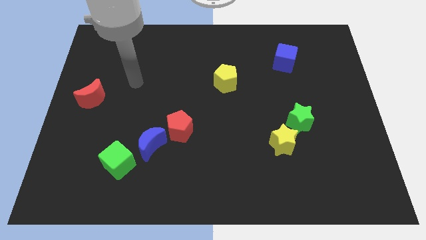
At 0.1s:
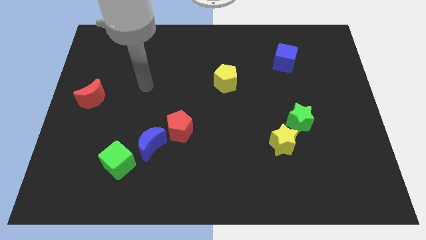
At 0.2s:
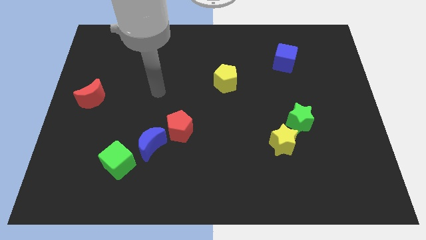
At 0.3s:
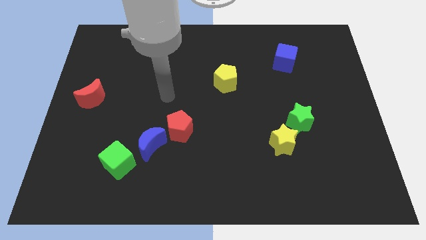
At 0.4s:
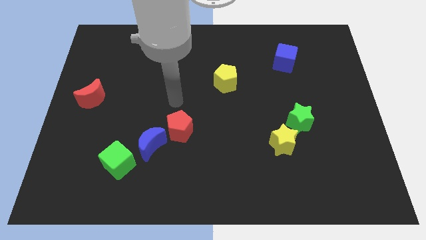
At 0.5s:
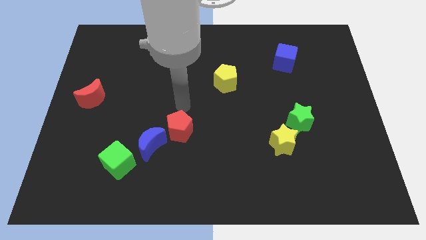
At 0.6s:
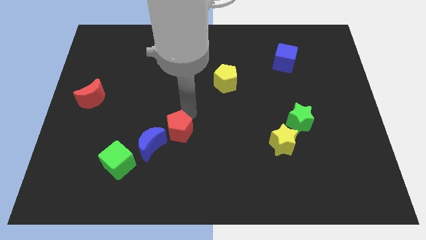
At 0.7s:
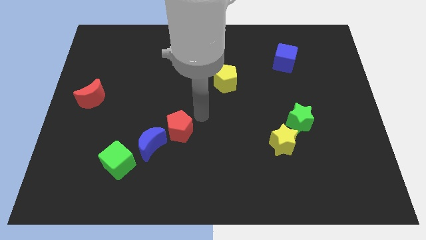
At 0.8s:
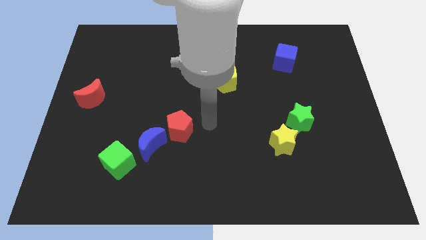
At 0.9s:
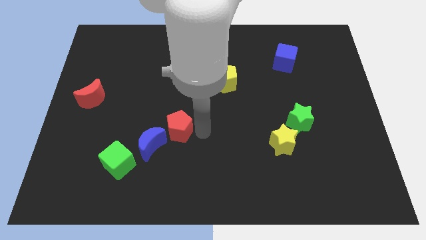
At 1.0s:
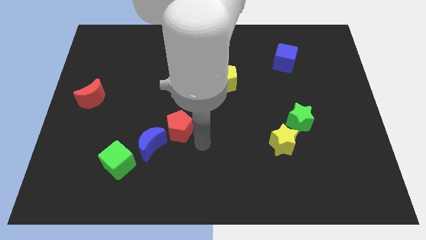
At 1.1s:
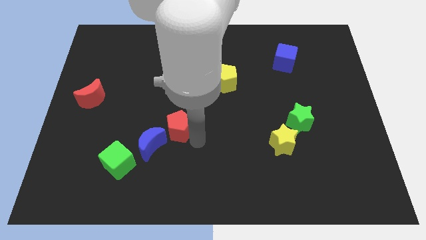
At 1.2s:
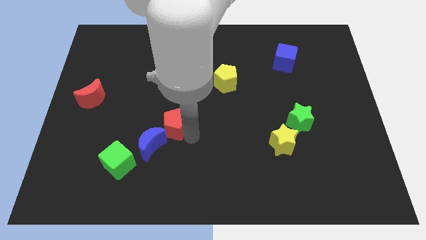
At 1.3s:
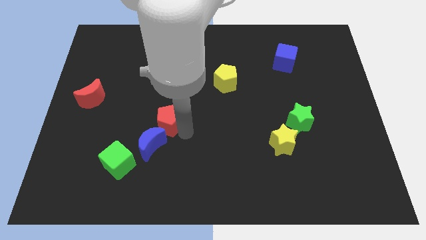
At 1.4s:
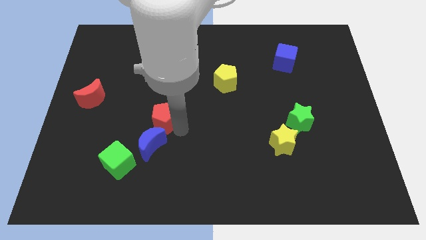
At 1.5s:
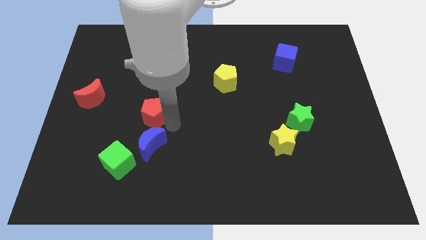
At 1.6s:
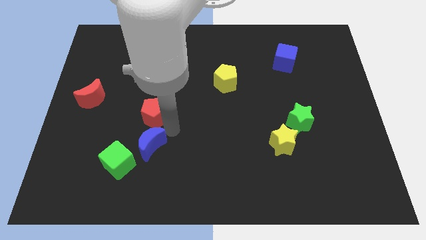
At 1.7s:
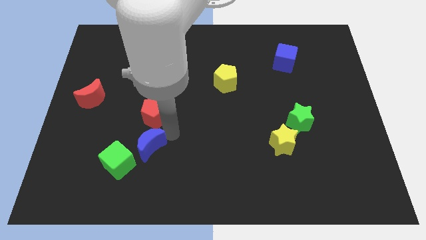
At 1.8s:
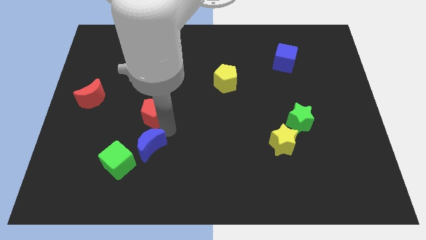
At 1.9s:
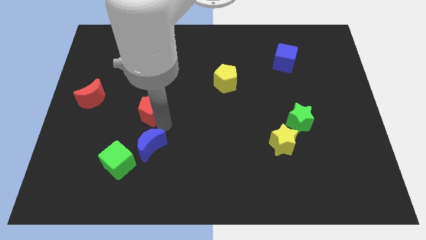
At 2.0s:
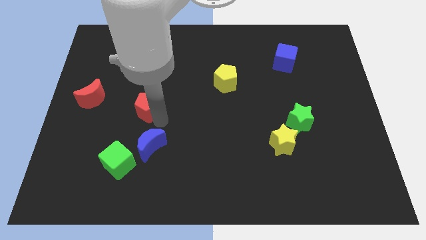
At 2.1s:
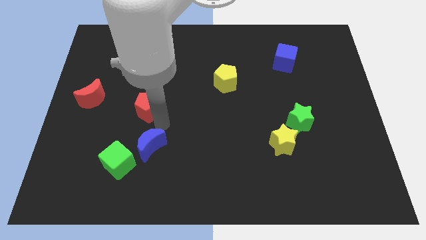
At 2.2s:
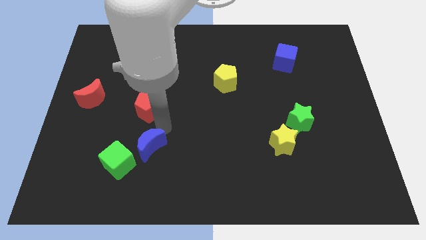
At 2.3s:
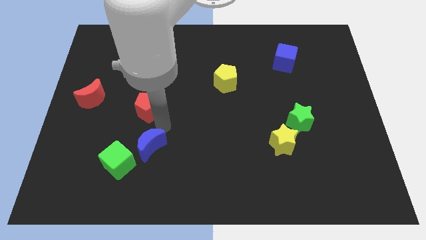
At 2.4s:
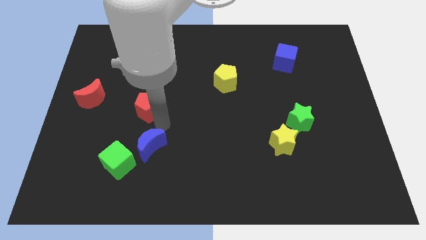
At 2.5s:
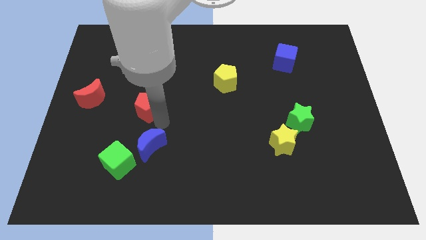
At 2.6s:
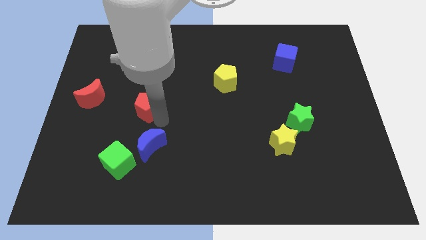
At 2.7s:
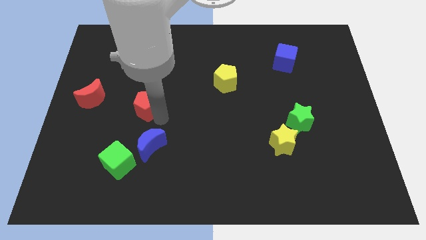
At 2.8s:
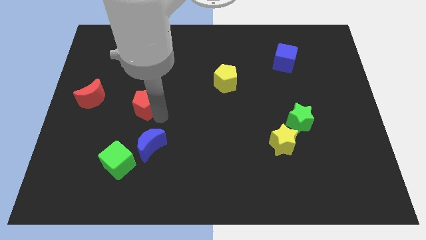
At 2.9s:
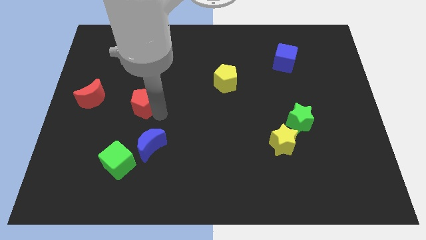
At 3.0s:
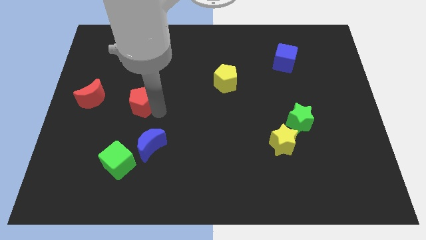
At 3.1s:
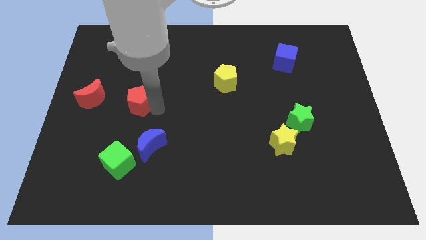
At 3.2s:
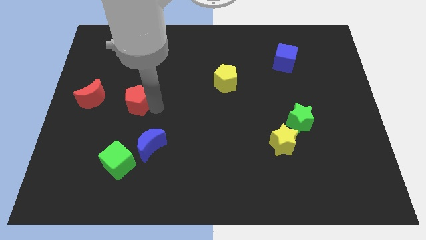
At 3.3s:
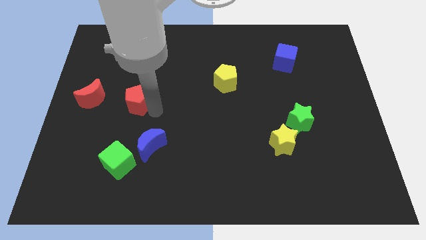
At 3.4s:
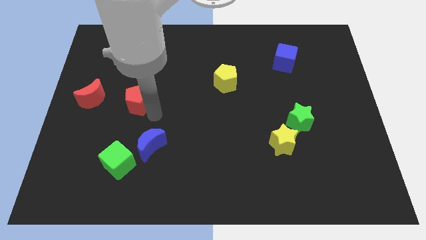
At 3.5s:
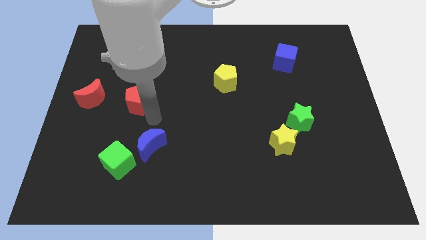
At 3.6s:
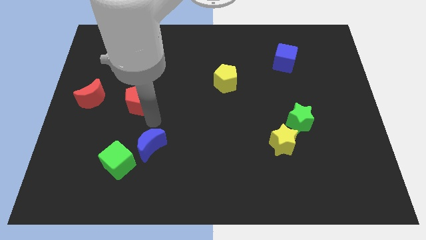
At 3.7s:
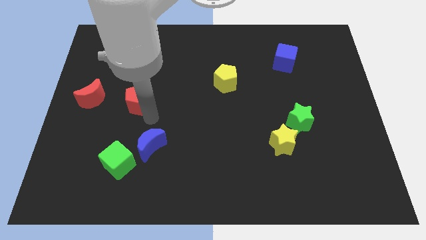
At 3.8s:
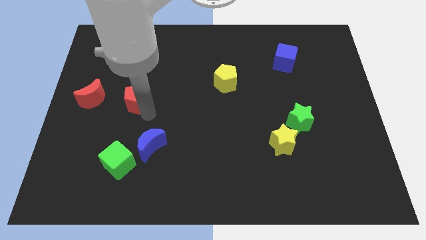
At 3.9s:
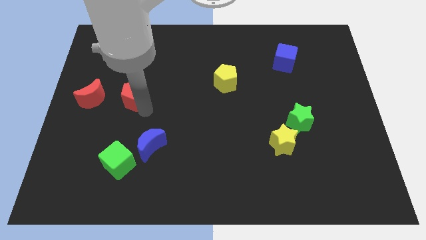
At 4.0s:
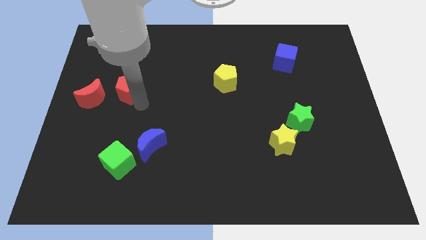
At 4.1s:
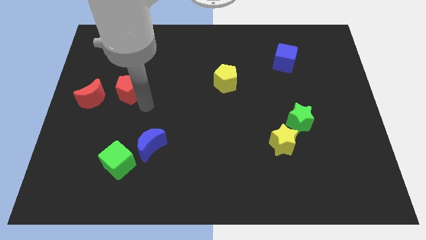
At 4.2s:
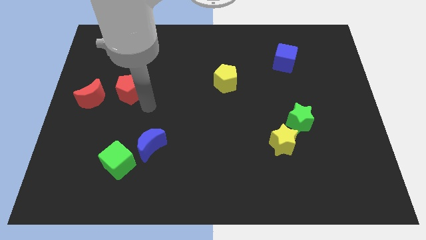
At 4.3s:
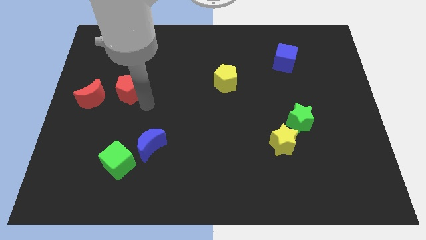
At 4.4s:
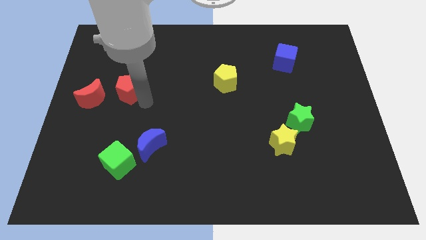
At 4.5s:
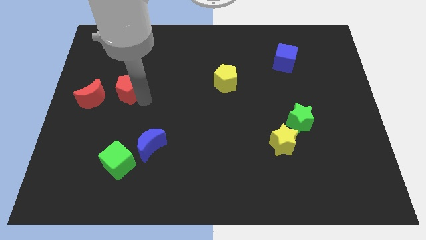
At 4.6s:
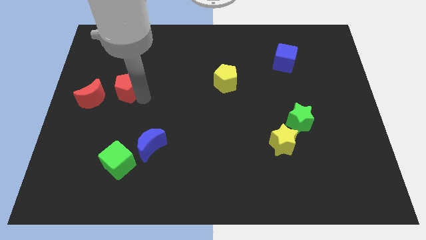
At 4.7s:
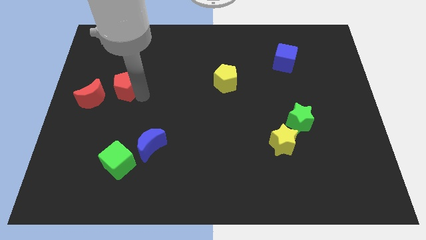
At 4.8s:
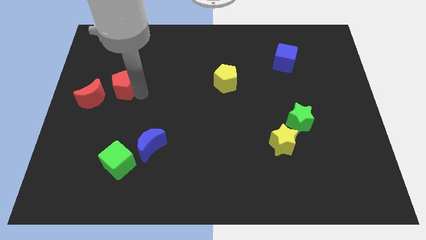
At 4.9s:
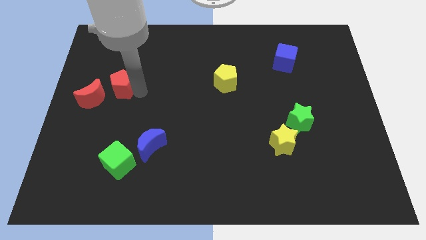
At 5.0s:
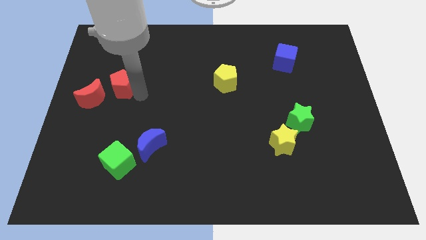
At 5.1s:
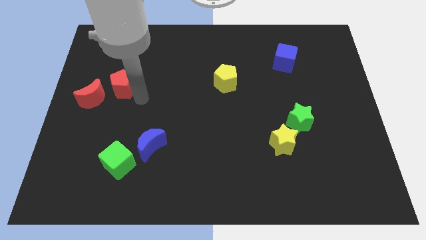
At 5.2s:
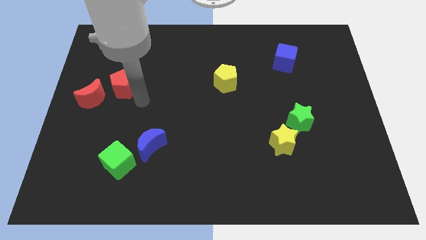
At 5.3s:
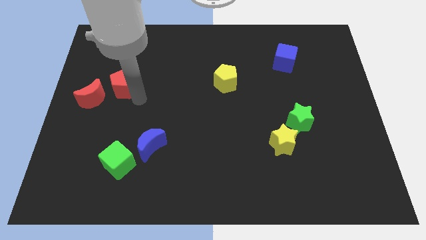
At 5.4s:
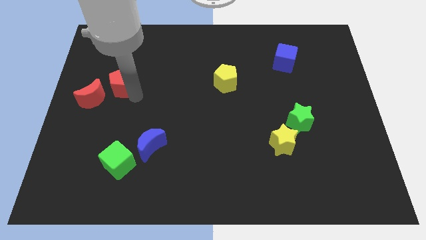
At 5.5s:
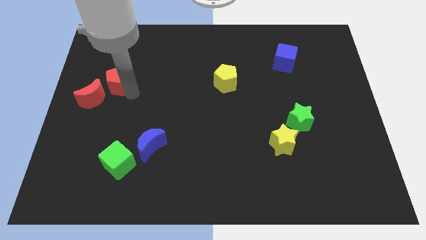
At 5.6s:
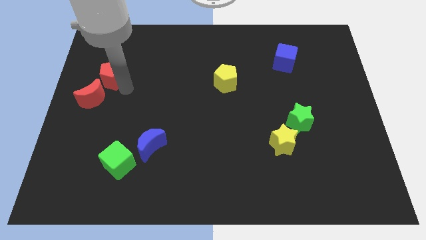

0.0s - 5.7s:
put the red pentagon to the top of the red moon

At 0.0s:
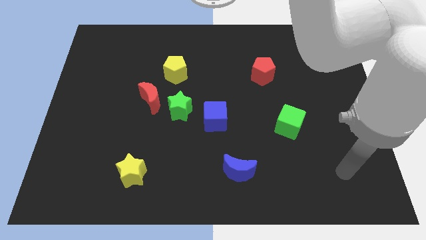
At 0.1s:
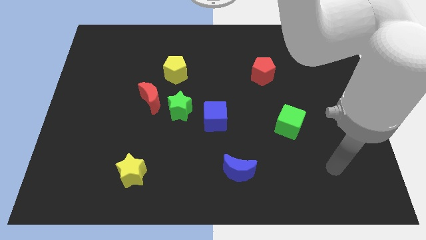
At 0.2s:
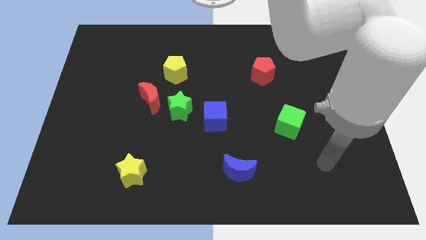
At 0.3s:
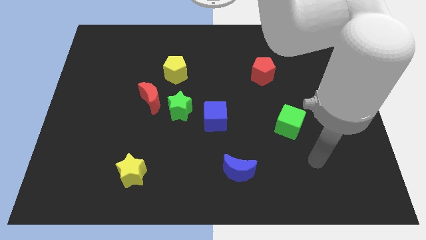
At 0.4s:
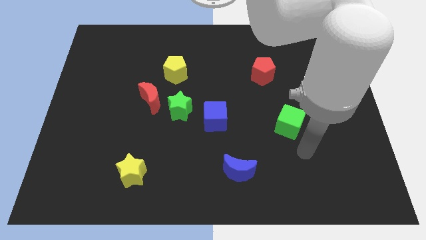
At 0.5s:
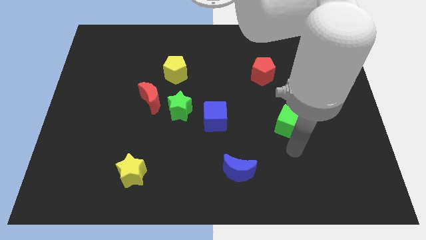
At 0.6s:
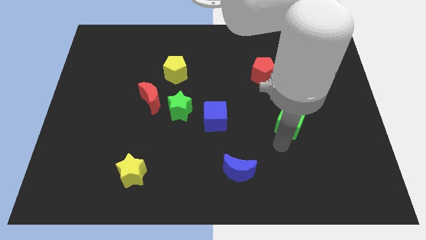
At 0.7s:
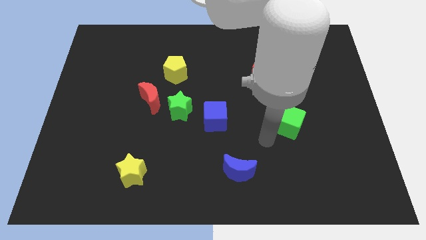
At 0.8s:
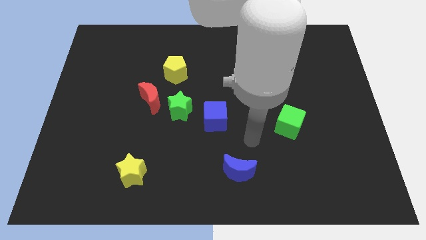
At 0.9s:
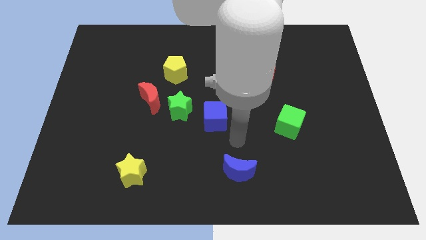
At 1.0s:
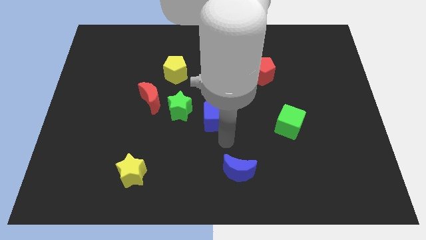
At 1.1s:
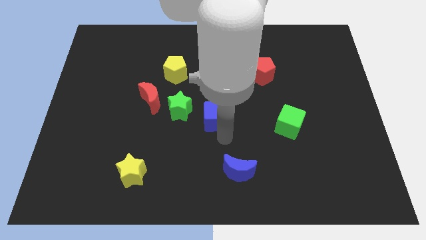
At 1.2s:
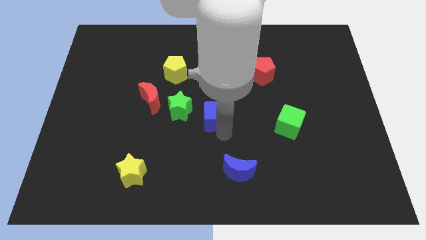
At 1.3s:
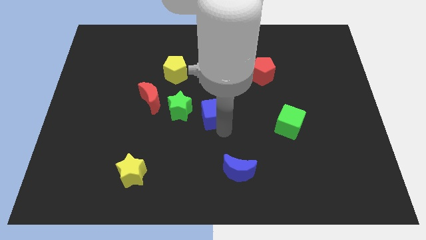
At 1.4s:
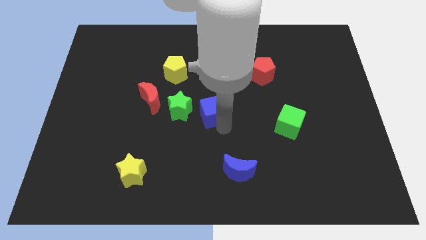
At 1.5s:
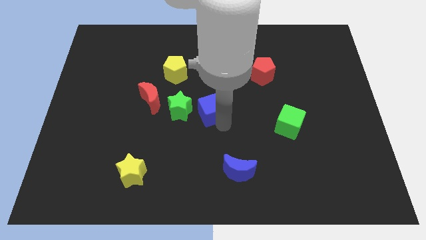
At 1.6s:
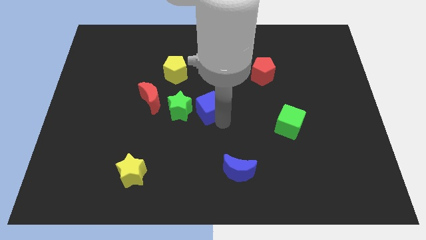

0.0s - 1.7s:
put the blue cube diagonally up and to the right of the green star
